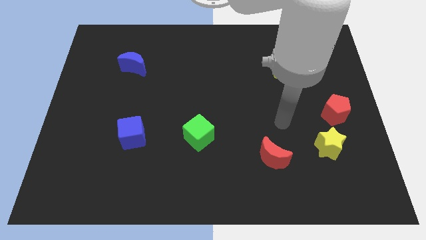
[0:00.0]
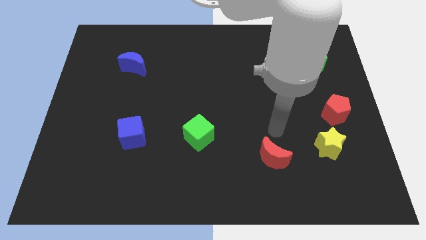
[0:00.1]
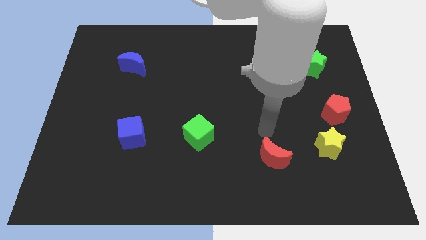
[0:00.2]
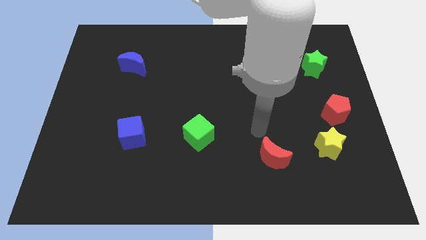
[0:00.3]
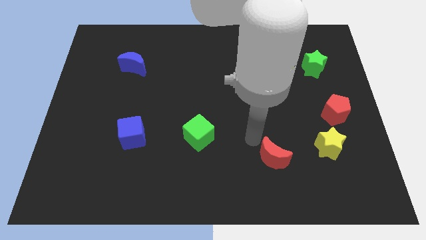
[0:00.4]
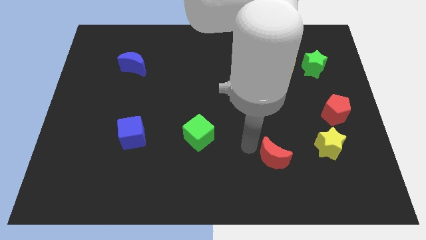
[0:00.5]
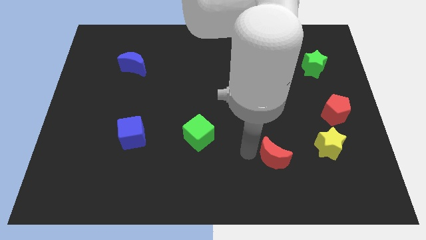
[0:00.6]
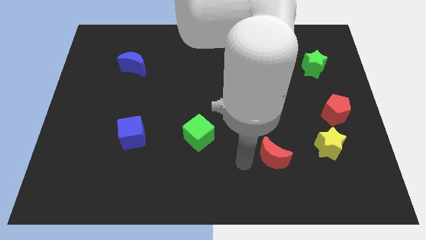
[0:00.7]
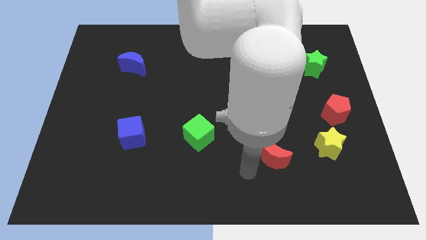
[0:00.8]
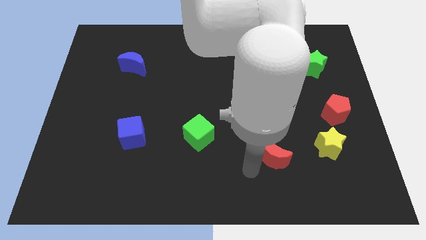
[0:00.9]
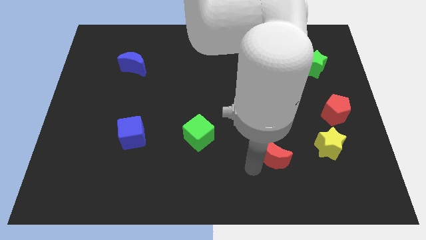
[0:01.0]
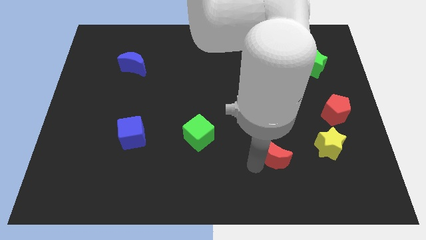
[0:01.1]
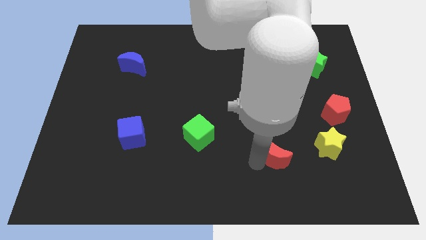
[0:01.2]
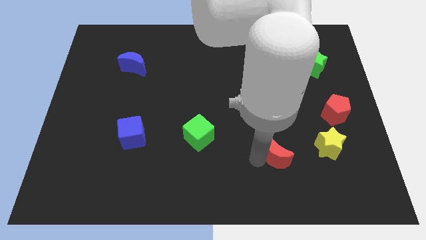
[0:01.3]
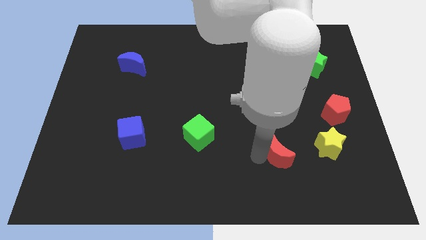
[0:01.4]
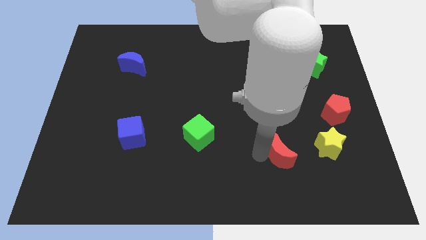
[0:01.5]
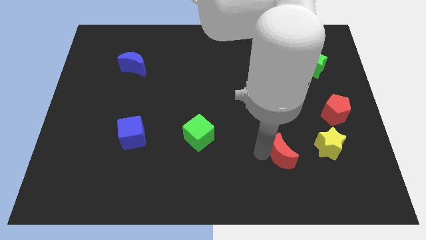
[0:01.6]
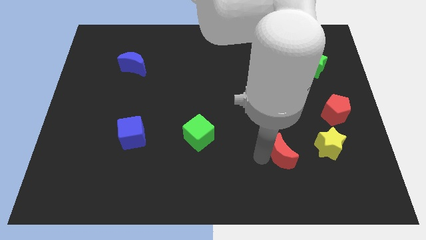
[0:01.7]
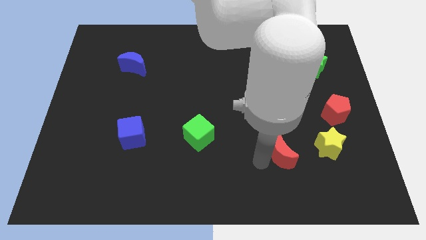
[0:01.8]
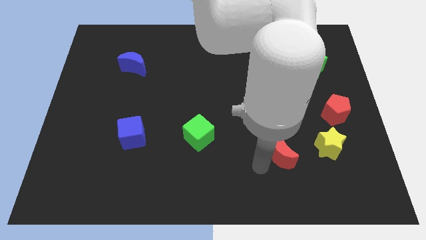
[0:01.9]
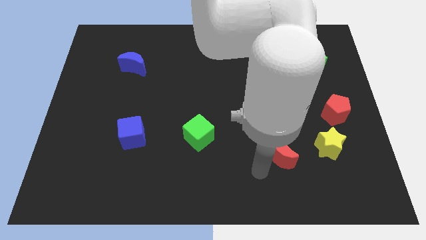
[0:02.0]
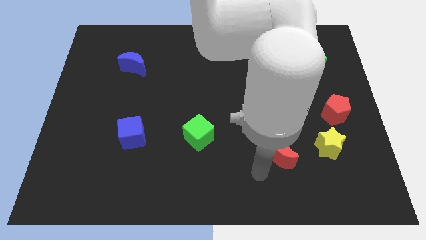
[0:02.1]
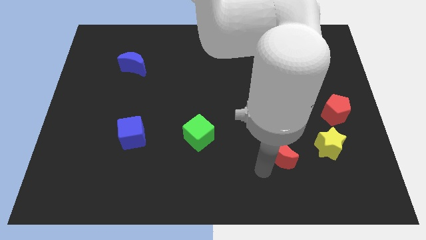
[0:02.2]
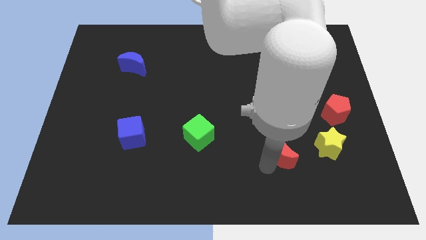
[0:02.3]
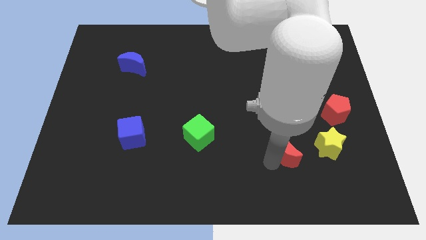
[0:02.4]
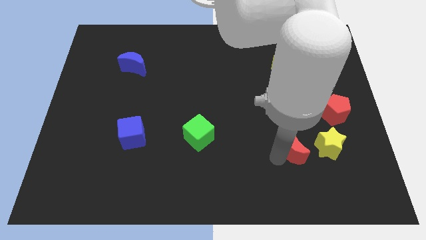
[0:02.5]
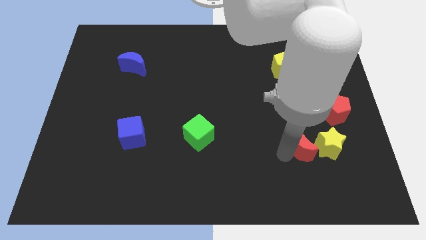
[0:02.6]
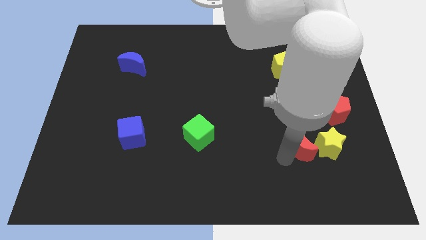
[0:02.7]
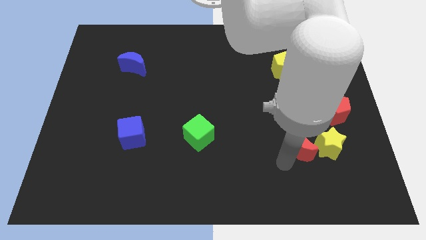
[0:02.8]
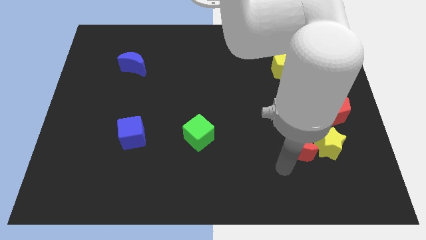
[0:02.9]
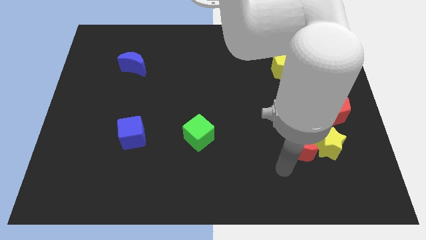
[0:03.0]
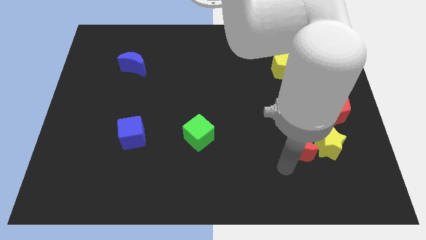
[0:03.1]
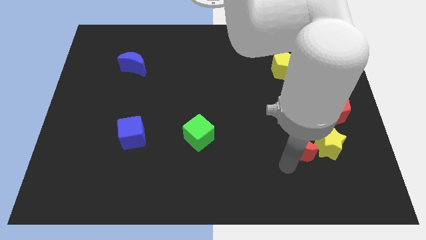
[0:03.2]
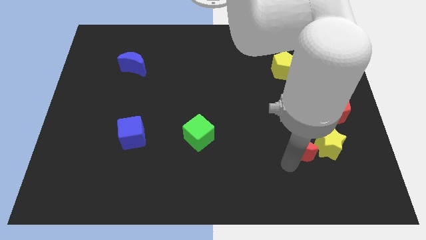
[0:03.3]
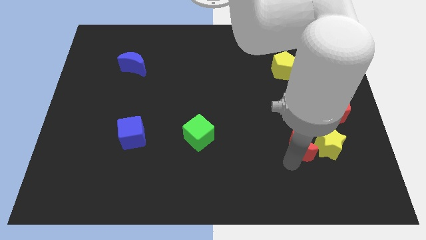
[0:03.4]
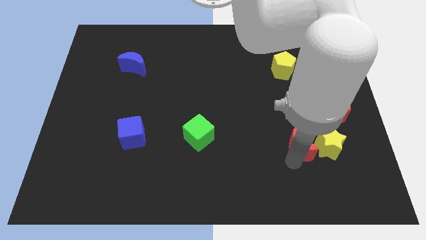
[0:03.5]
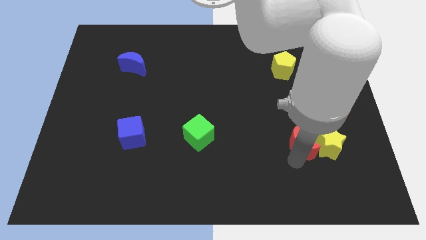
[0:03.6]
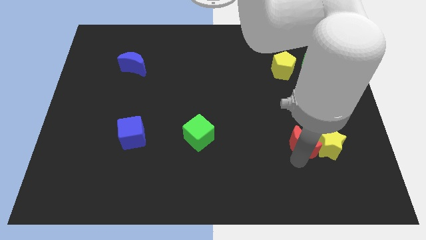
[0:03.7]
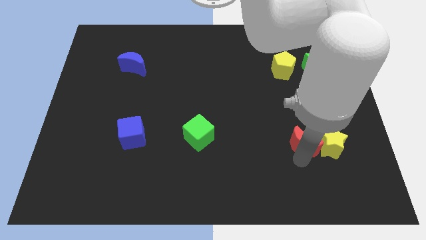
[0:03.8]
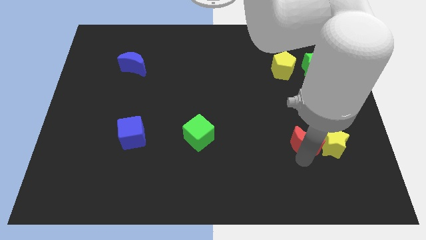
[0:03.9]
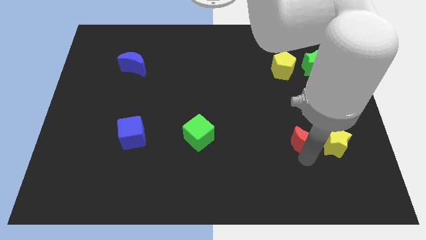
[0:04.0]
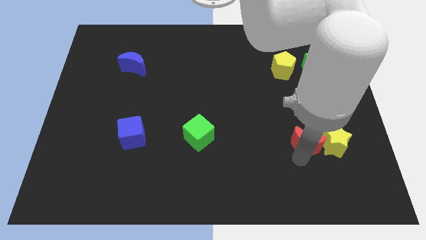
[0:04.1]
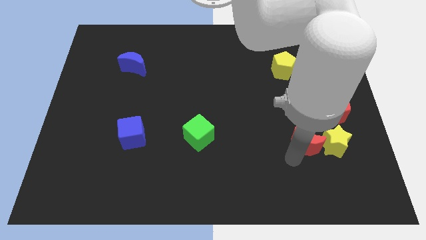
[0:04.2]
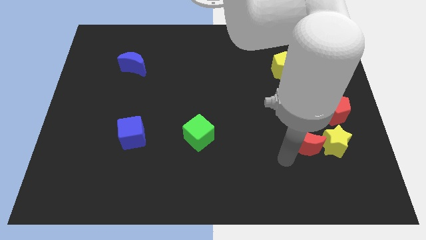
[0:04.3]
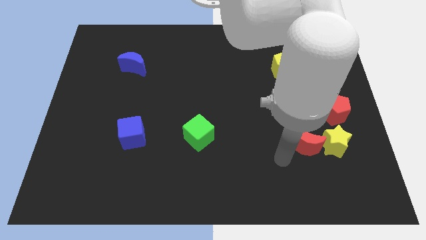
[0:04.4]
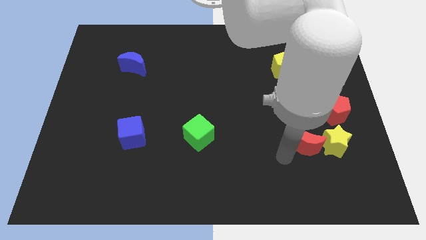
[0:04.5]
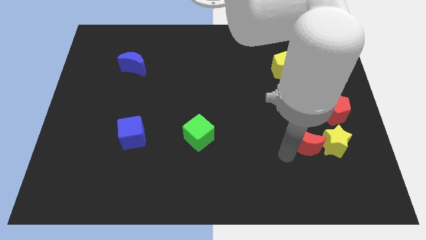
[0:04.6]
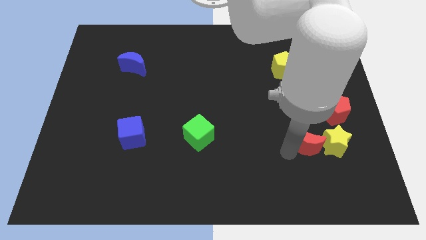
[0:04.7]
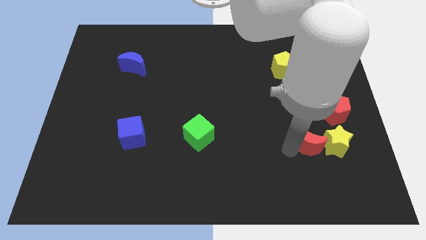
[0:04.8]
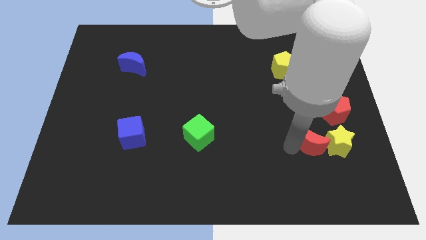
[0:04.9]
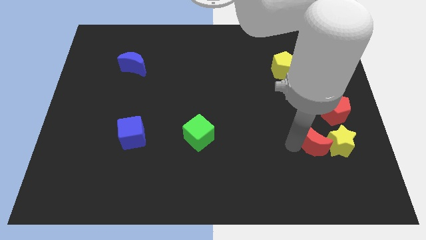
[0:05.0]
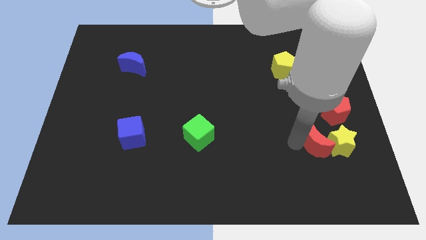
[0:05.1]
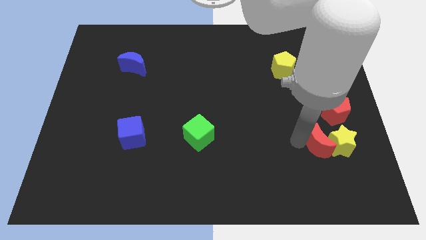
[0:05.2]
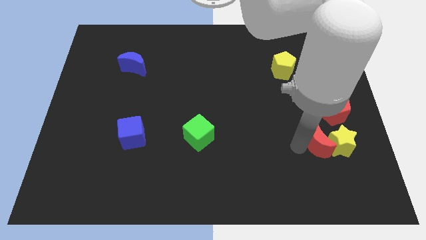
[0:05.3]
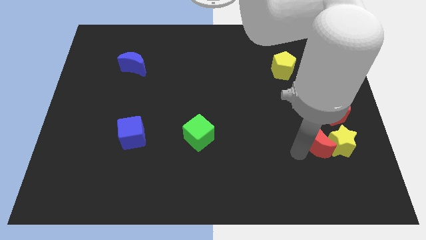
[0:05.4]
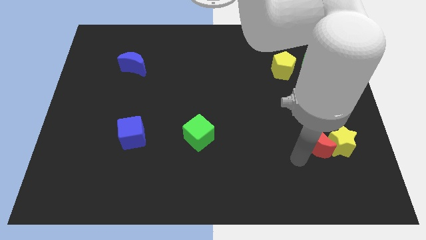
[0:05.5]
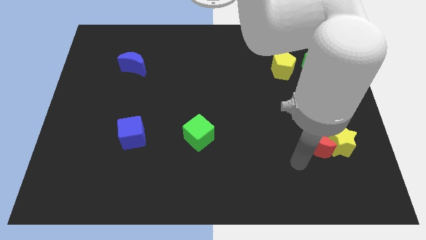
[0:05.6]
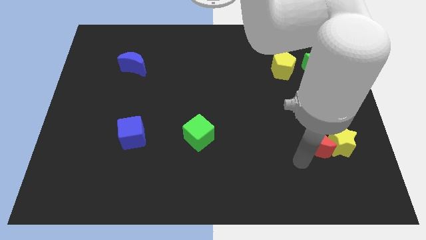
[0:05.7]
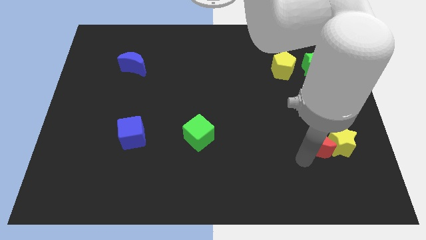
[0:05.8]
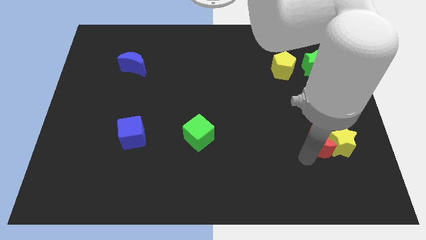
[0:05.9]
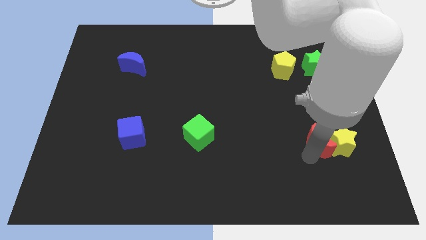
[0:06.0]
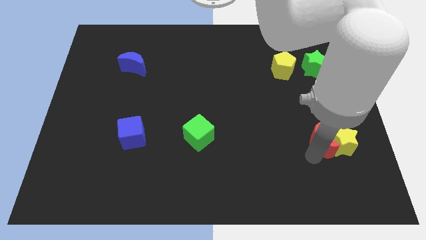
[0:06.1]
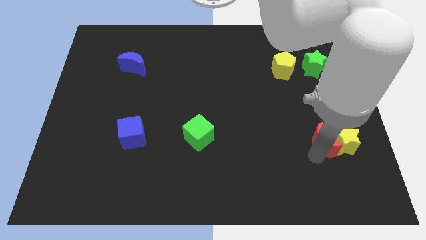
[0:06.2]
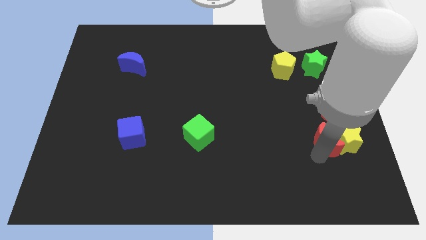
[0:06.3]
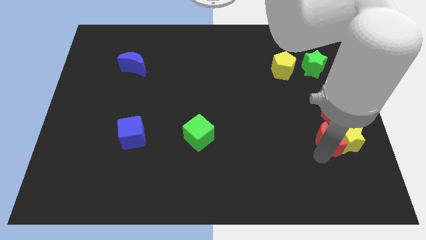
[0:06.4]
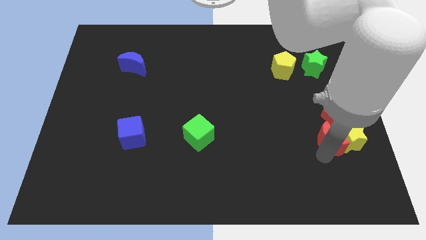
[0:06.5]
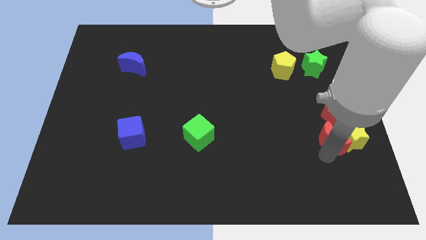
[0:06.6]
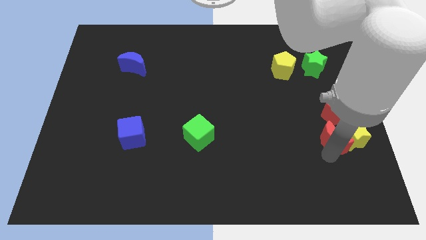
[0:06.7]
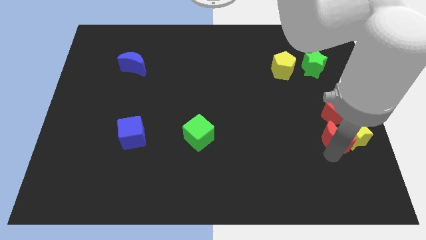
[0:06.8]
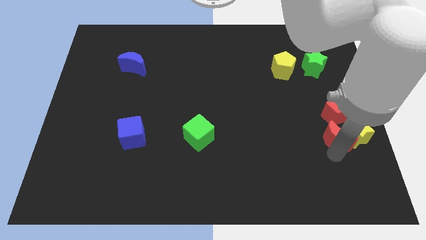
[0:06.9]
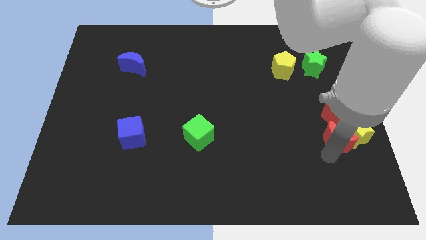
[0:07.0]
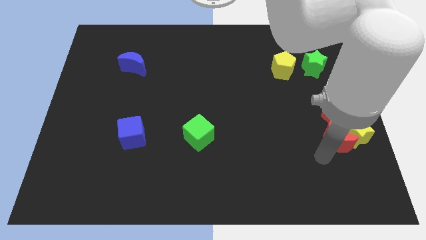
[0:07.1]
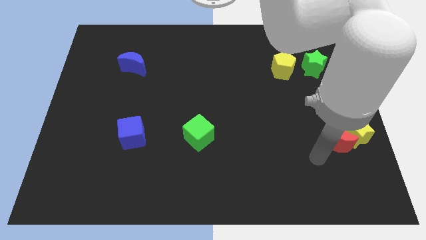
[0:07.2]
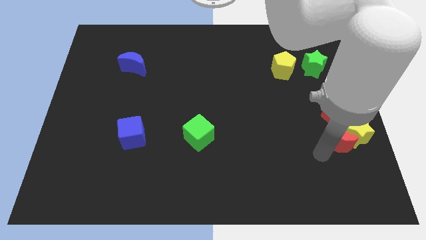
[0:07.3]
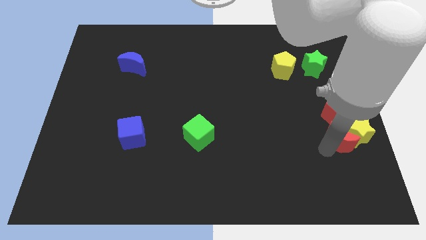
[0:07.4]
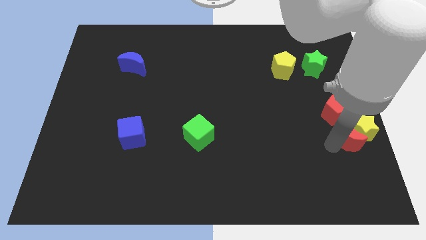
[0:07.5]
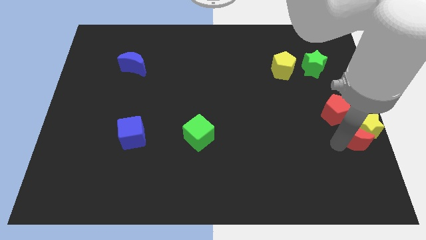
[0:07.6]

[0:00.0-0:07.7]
push the red moon to the right side
